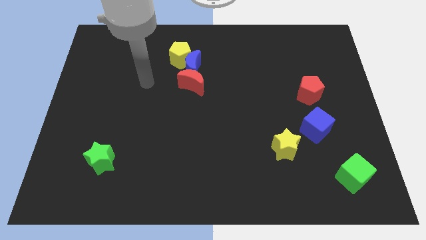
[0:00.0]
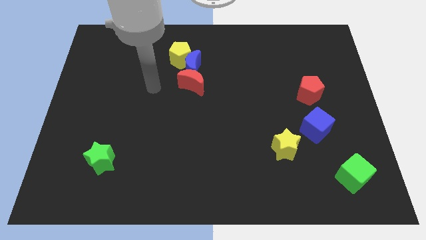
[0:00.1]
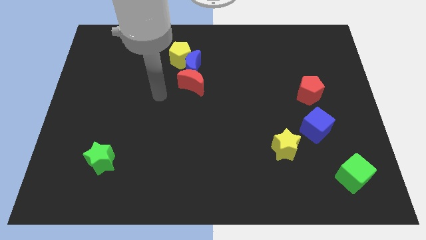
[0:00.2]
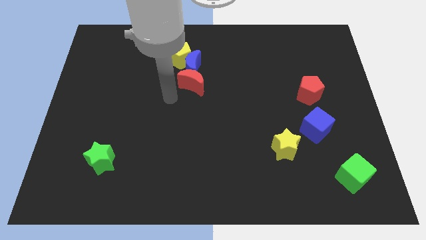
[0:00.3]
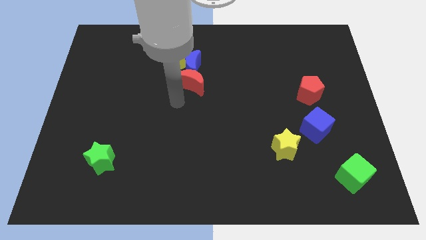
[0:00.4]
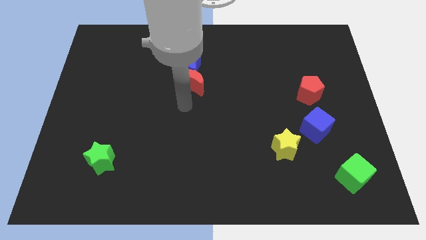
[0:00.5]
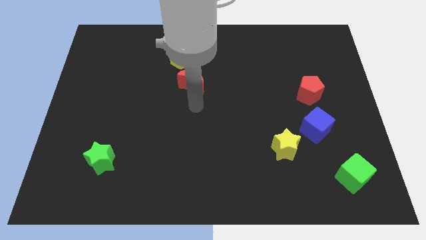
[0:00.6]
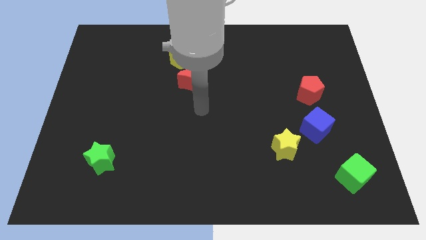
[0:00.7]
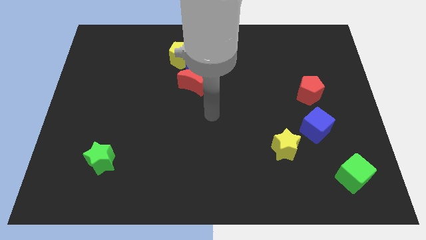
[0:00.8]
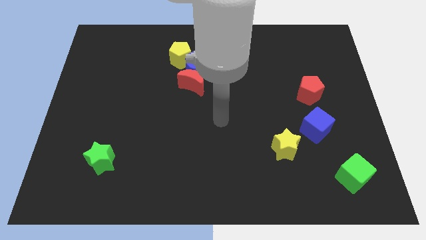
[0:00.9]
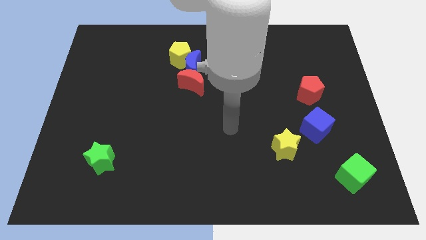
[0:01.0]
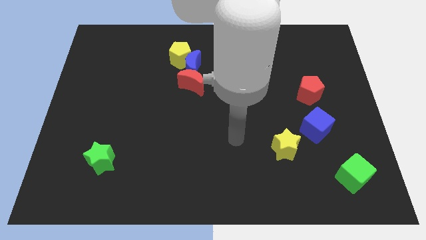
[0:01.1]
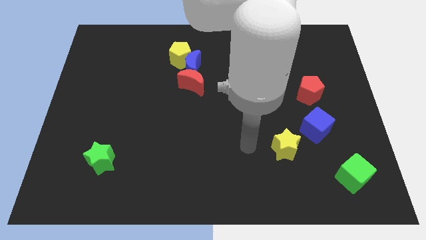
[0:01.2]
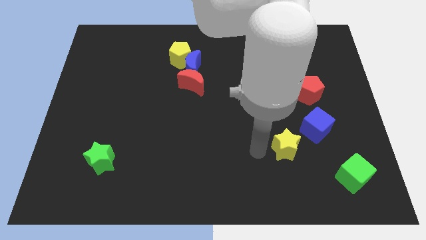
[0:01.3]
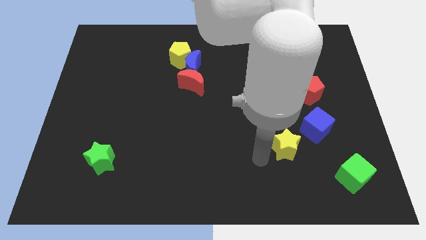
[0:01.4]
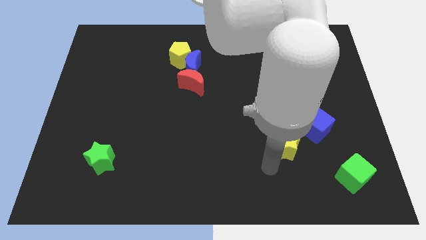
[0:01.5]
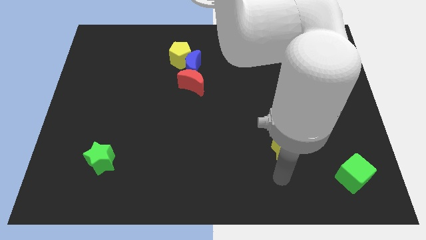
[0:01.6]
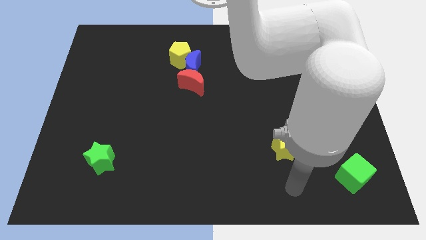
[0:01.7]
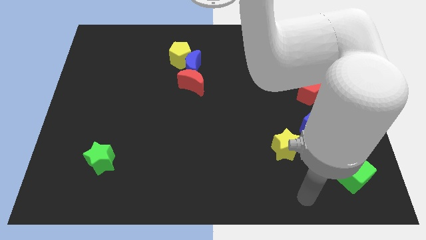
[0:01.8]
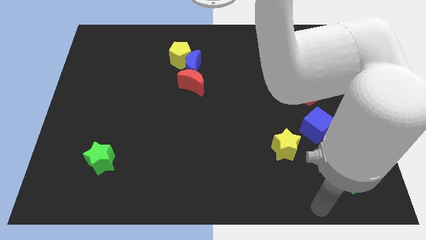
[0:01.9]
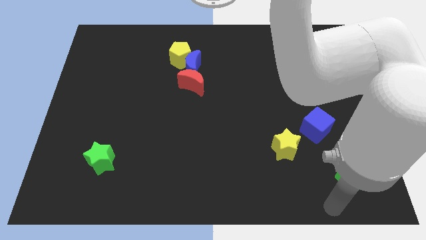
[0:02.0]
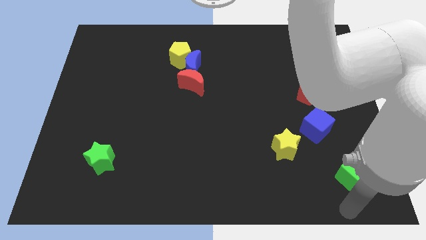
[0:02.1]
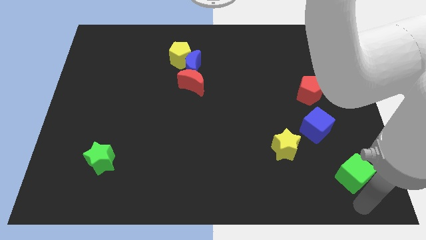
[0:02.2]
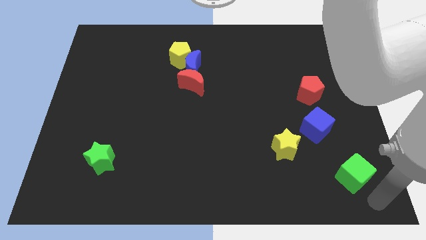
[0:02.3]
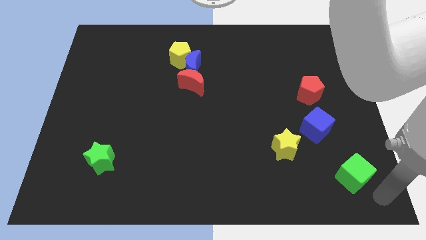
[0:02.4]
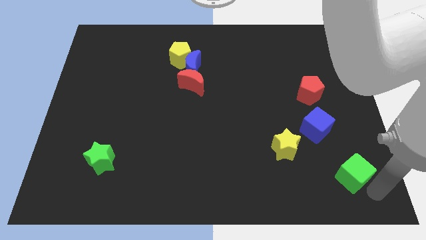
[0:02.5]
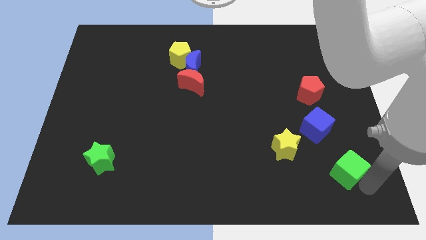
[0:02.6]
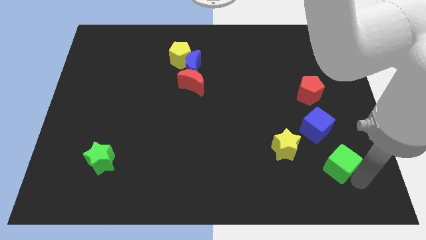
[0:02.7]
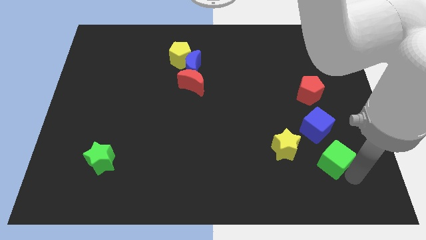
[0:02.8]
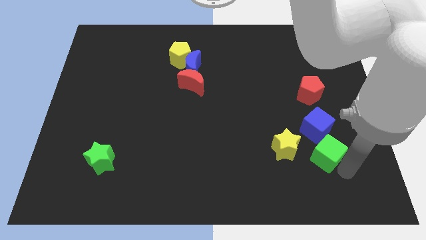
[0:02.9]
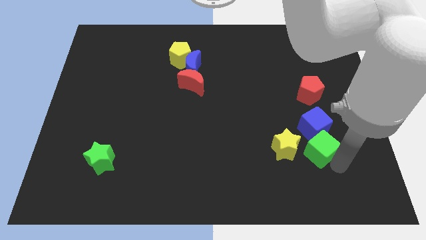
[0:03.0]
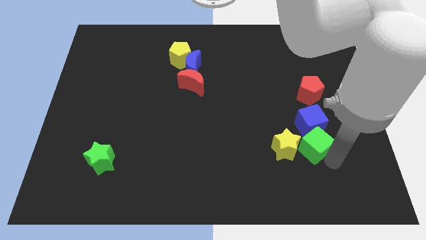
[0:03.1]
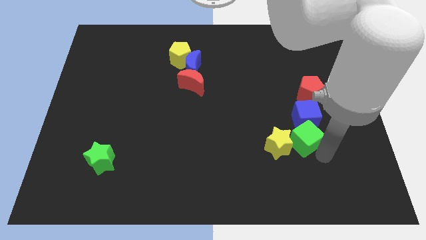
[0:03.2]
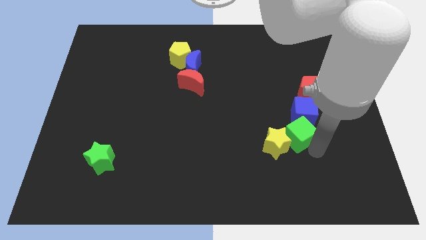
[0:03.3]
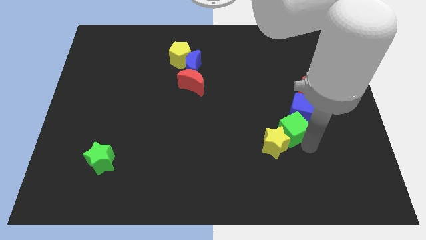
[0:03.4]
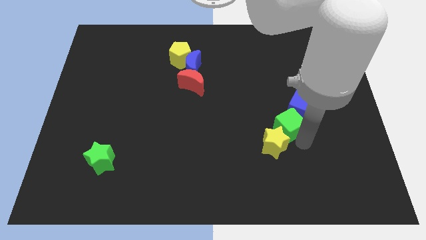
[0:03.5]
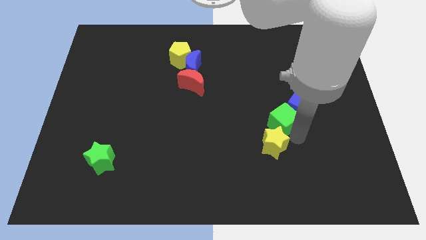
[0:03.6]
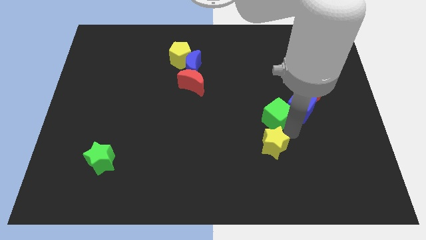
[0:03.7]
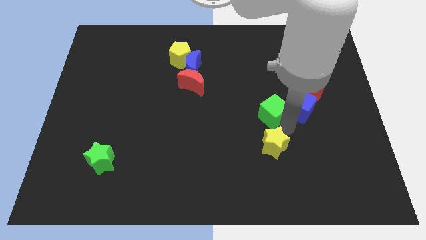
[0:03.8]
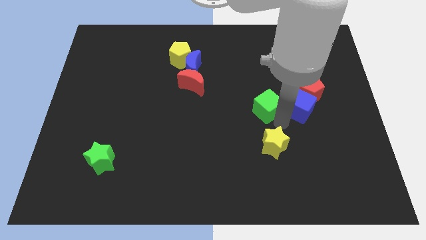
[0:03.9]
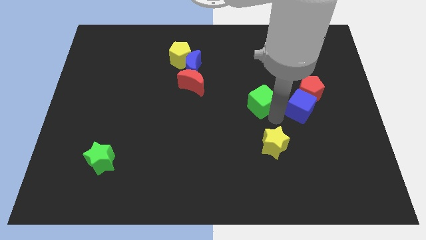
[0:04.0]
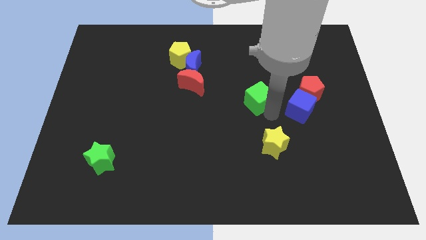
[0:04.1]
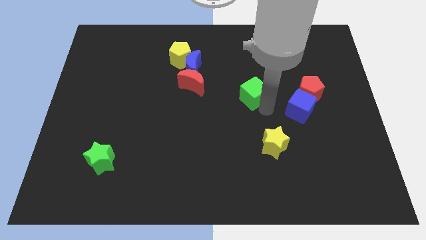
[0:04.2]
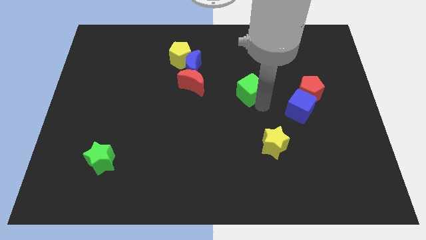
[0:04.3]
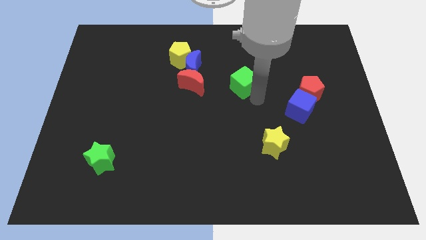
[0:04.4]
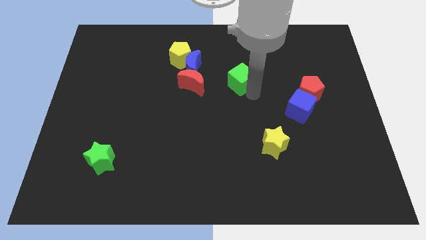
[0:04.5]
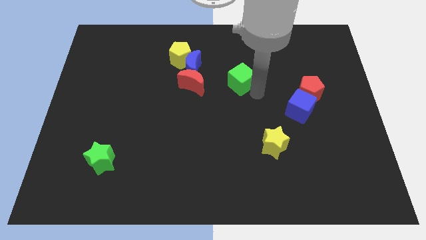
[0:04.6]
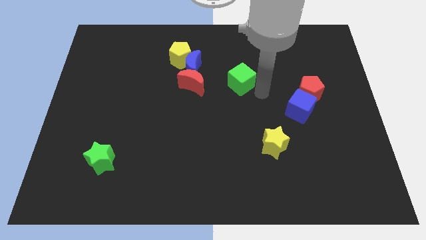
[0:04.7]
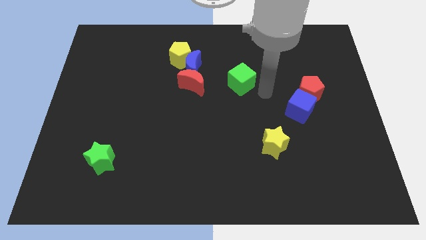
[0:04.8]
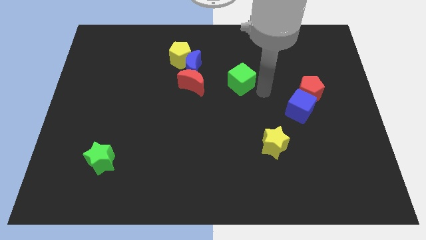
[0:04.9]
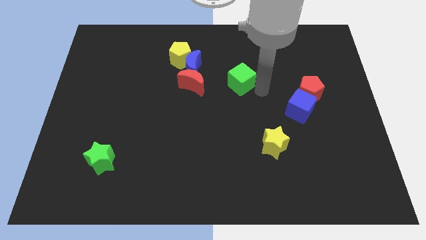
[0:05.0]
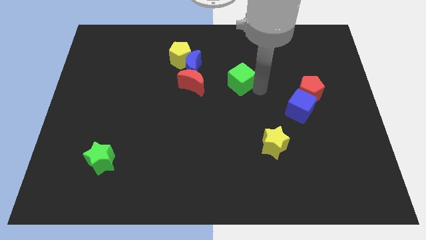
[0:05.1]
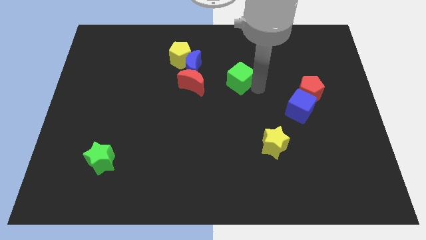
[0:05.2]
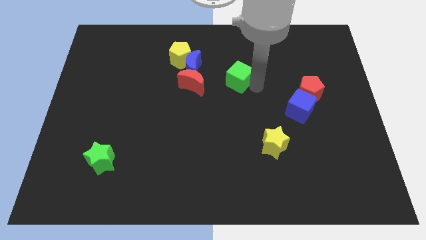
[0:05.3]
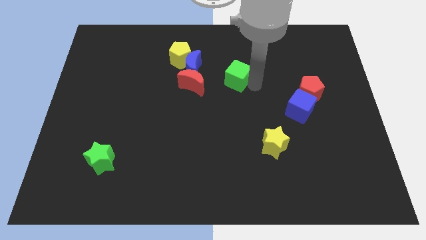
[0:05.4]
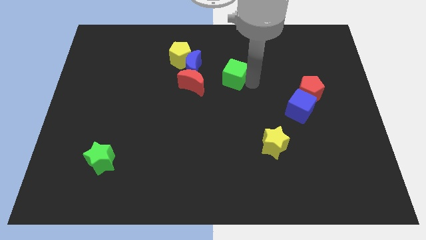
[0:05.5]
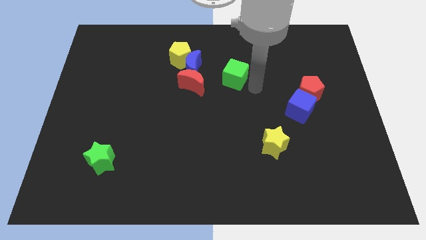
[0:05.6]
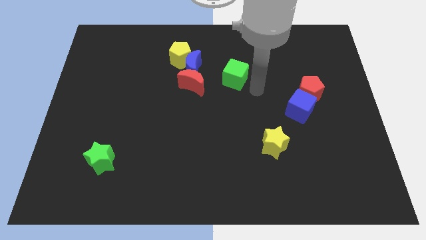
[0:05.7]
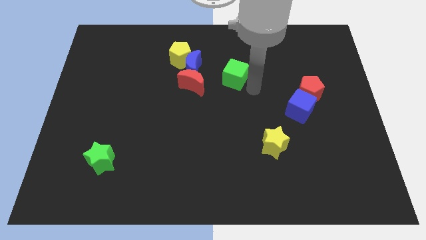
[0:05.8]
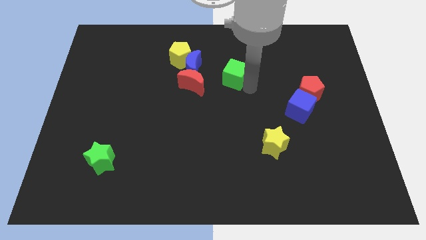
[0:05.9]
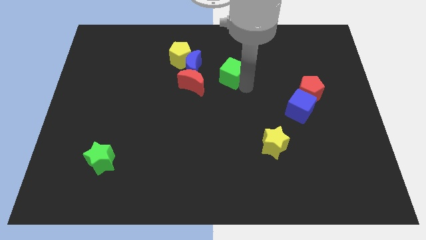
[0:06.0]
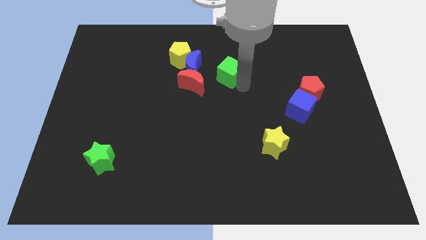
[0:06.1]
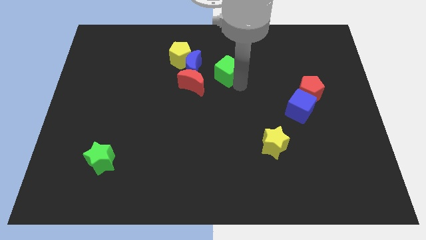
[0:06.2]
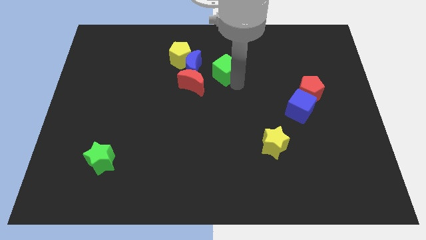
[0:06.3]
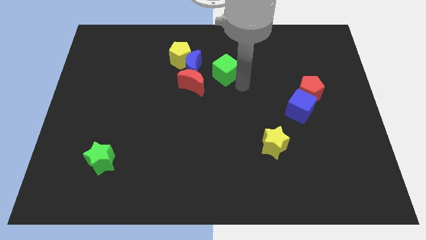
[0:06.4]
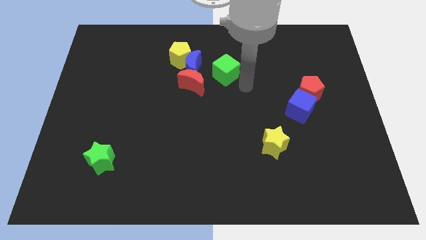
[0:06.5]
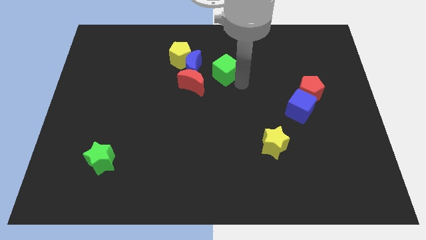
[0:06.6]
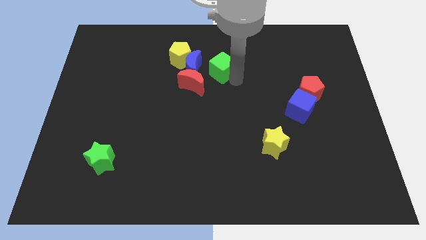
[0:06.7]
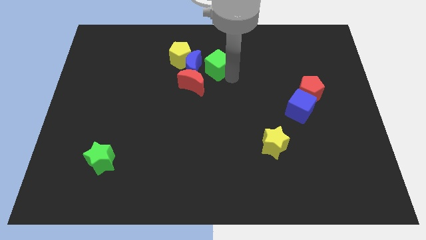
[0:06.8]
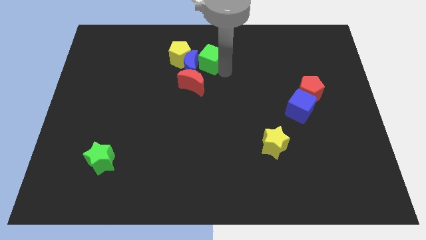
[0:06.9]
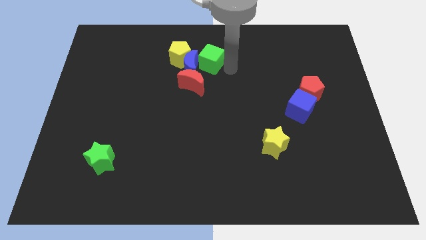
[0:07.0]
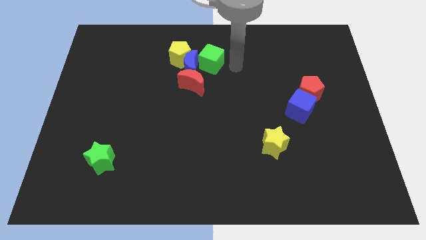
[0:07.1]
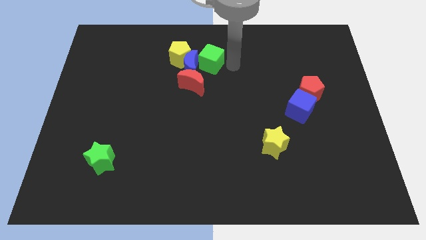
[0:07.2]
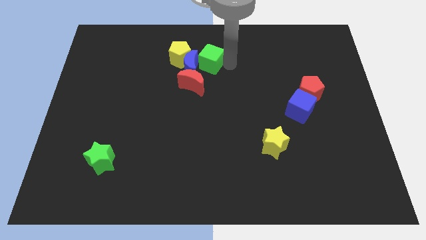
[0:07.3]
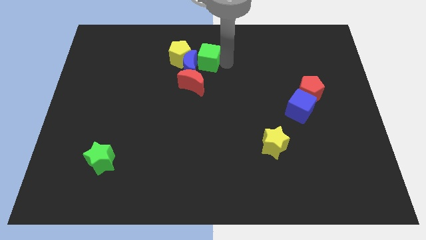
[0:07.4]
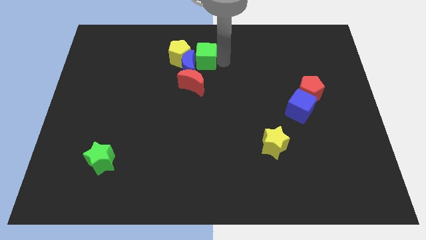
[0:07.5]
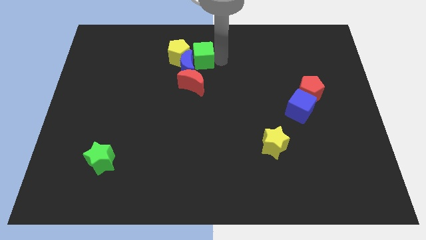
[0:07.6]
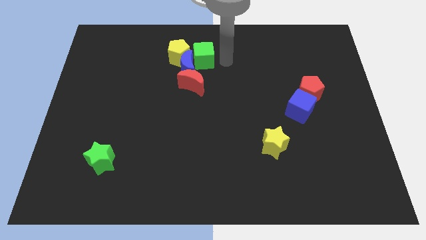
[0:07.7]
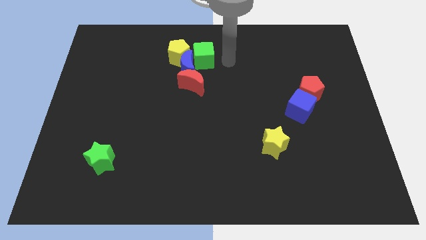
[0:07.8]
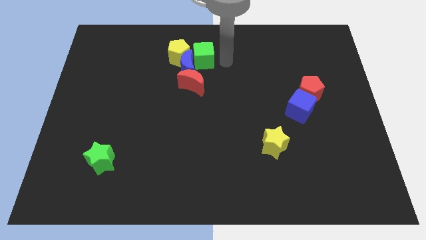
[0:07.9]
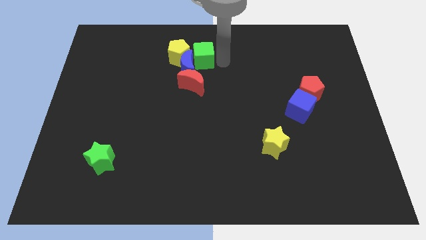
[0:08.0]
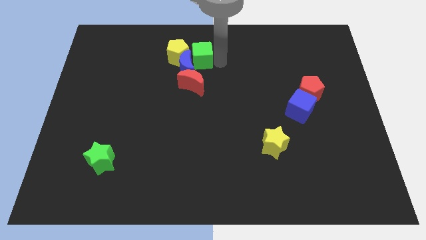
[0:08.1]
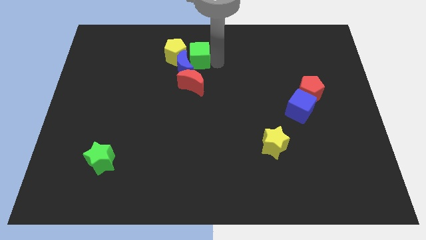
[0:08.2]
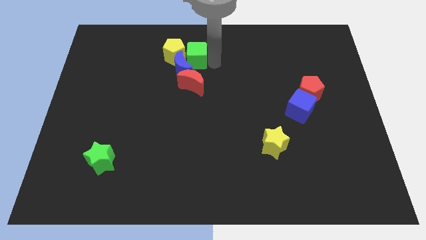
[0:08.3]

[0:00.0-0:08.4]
put the green cube to the yellow pentagon
